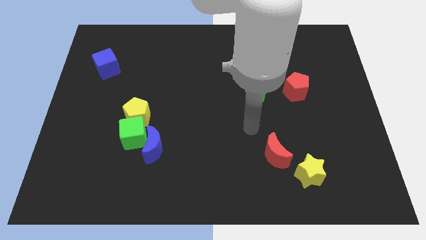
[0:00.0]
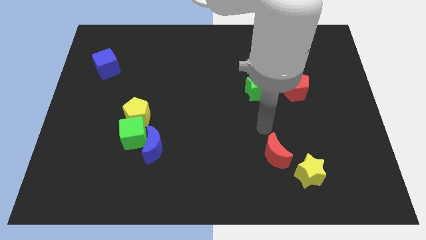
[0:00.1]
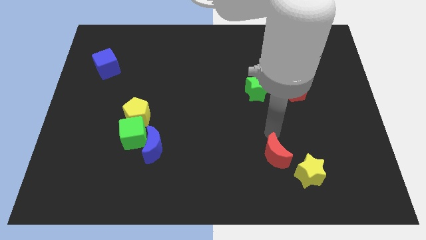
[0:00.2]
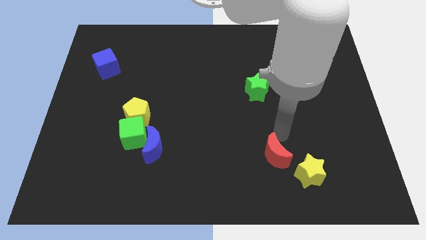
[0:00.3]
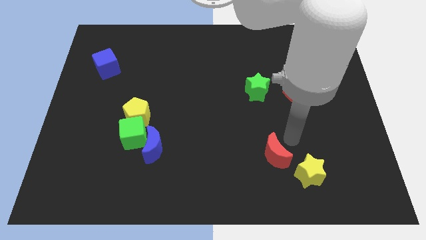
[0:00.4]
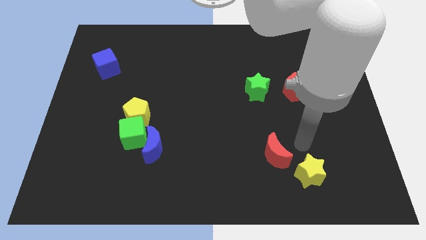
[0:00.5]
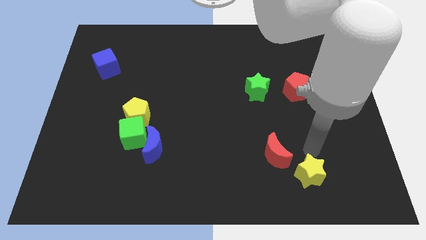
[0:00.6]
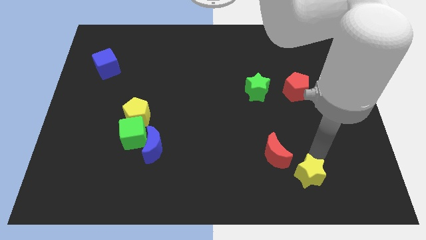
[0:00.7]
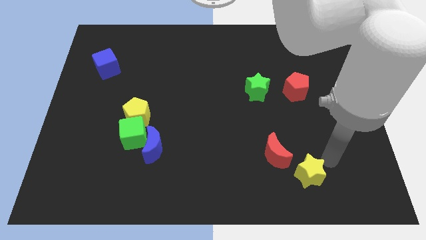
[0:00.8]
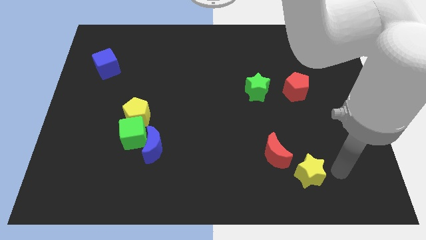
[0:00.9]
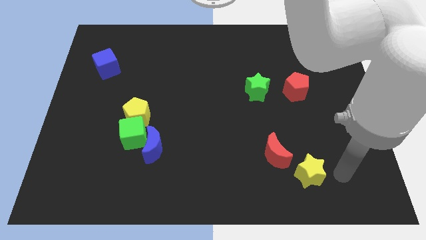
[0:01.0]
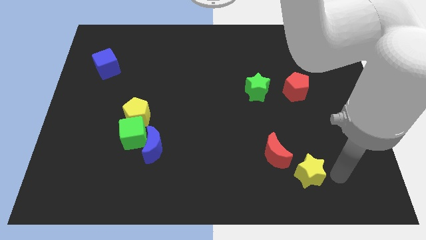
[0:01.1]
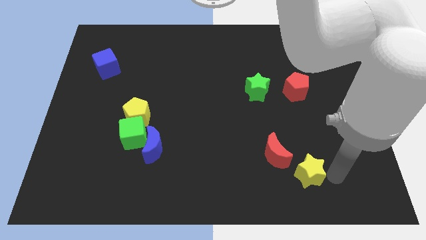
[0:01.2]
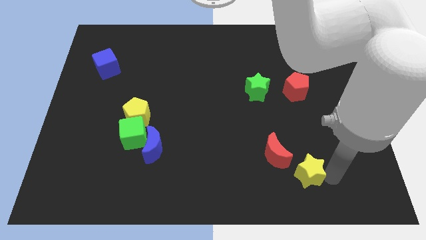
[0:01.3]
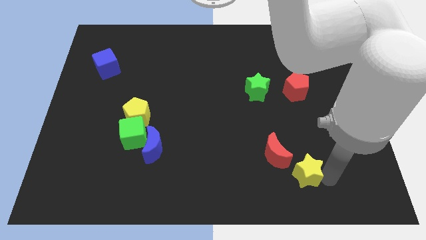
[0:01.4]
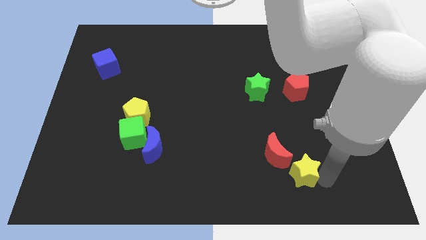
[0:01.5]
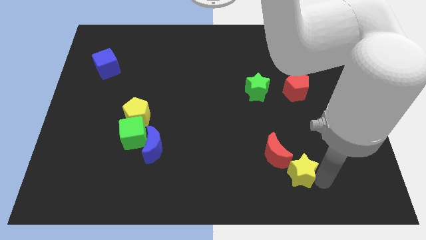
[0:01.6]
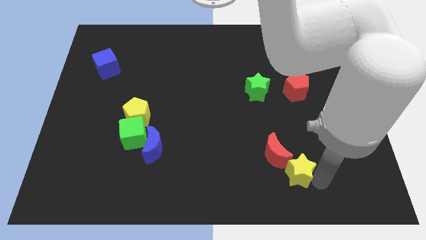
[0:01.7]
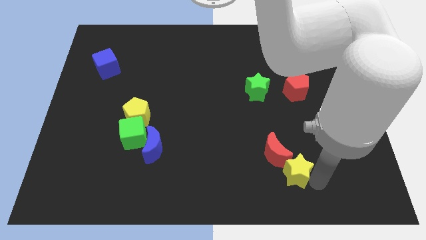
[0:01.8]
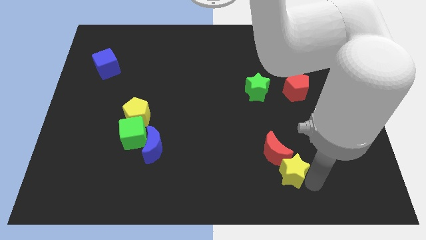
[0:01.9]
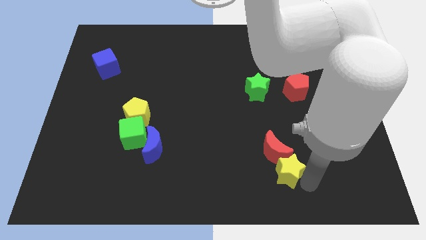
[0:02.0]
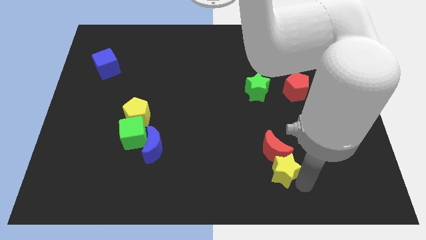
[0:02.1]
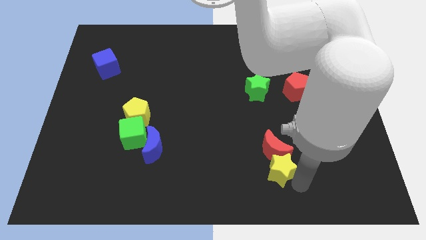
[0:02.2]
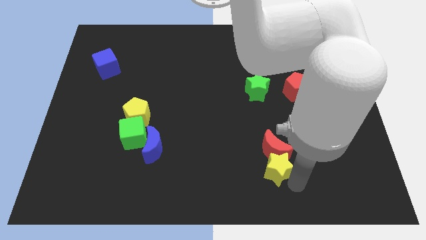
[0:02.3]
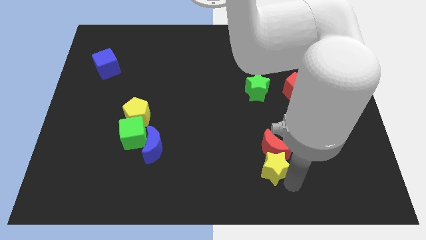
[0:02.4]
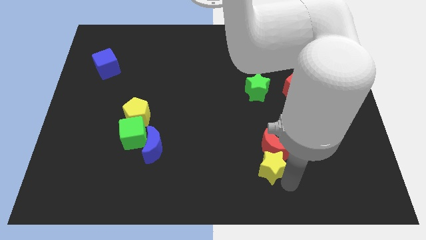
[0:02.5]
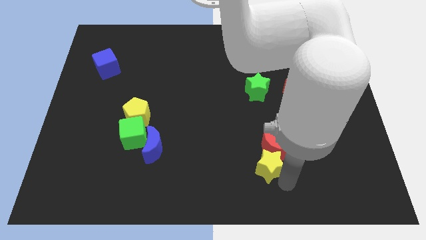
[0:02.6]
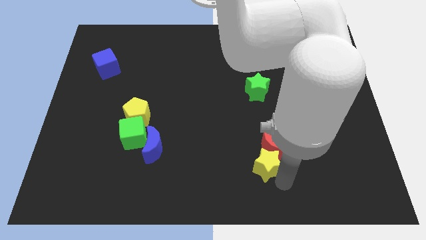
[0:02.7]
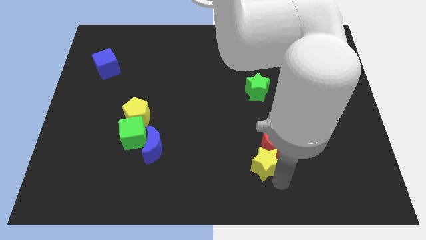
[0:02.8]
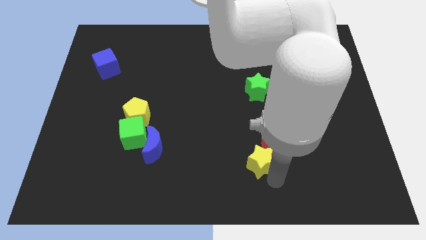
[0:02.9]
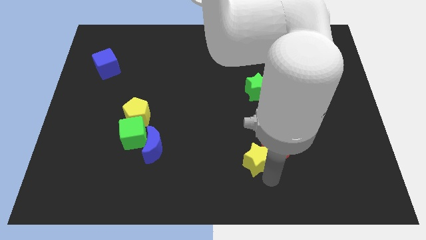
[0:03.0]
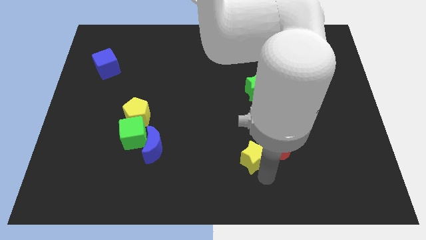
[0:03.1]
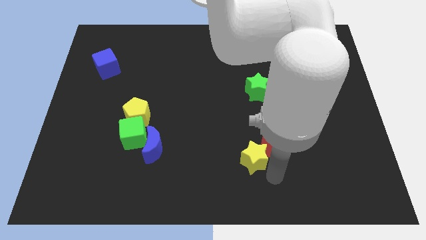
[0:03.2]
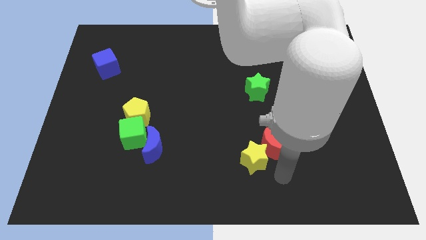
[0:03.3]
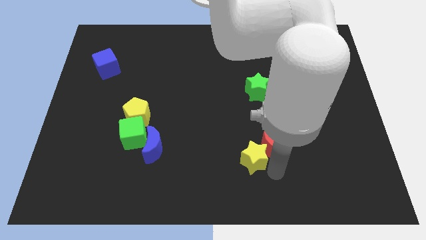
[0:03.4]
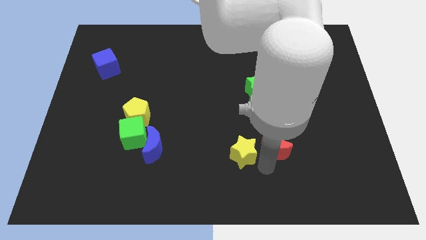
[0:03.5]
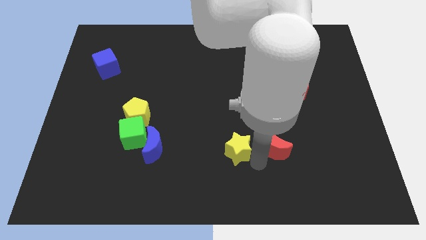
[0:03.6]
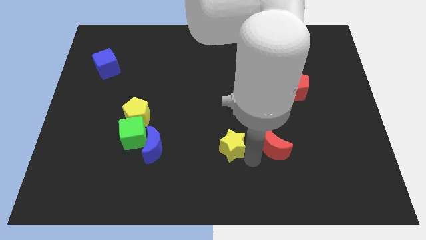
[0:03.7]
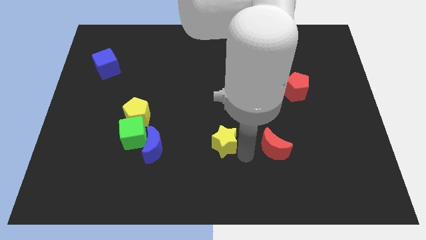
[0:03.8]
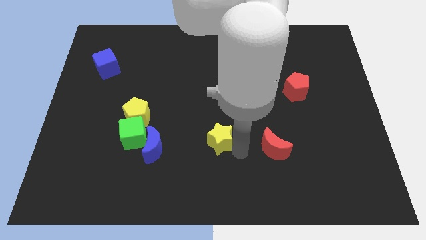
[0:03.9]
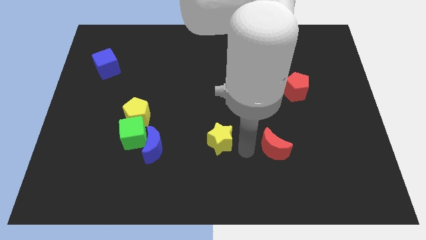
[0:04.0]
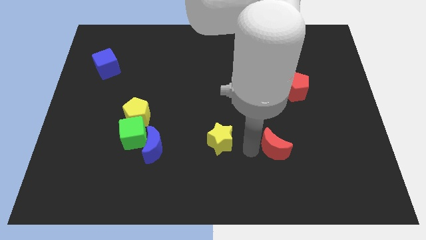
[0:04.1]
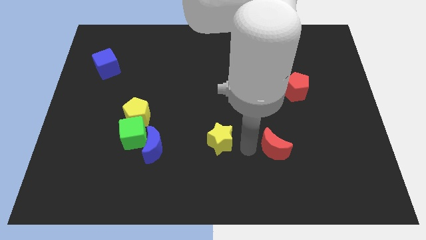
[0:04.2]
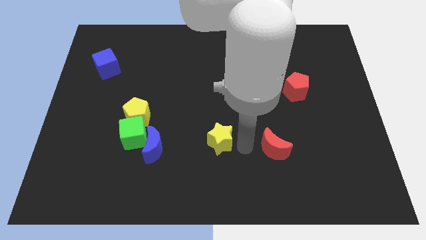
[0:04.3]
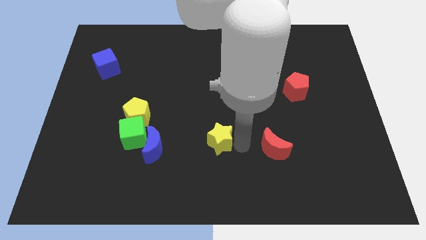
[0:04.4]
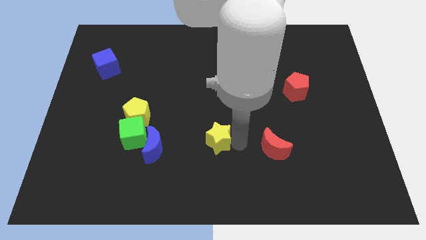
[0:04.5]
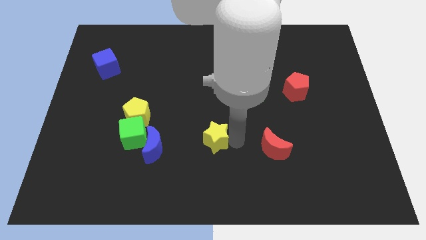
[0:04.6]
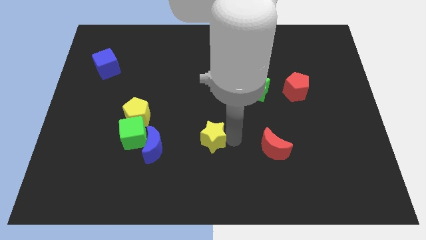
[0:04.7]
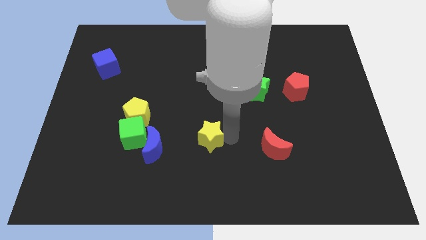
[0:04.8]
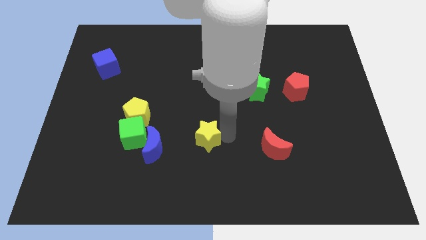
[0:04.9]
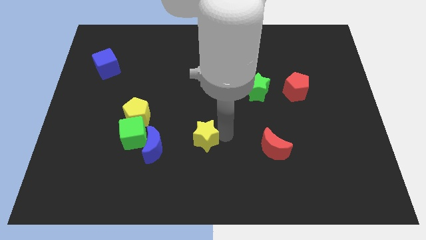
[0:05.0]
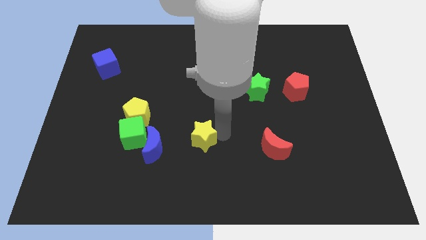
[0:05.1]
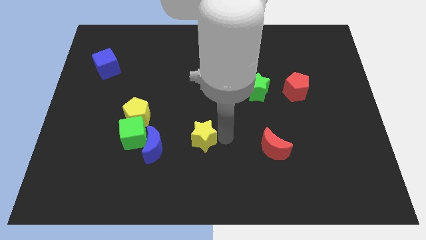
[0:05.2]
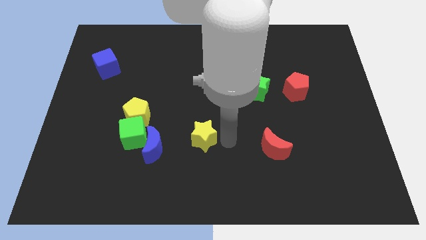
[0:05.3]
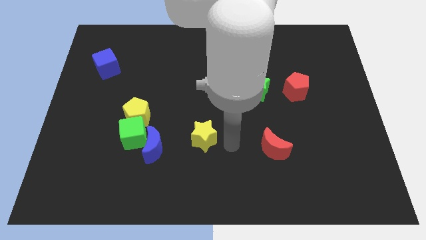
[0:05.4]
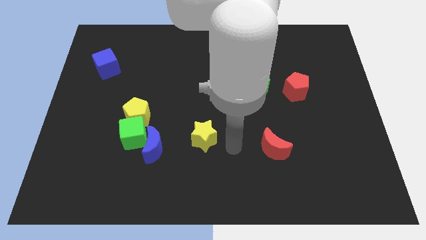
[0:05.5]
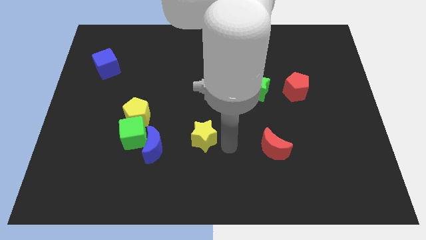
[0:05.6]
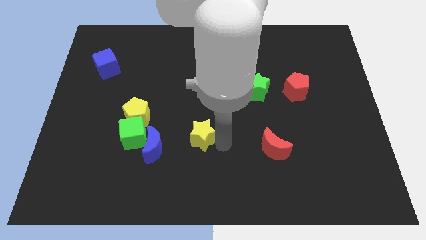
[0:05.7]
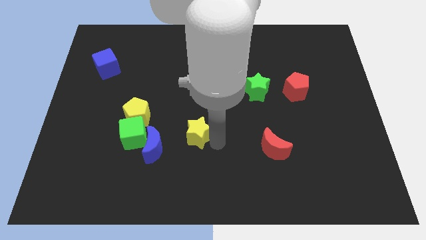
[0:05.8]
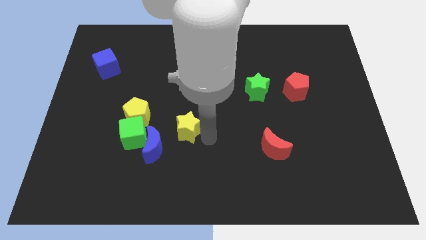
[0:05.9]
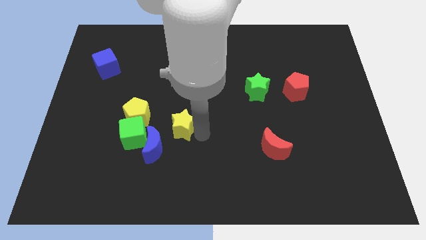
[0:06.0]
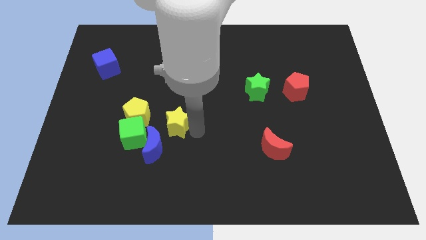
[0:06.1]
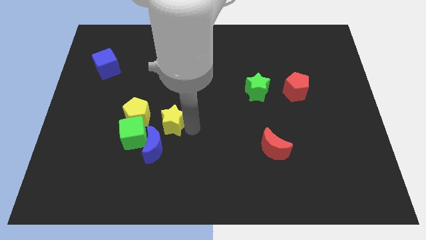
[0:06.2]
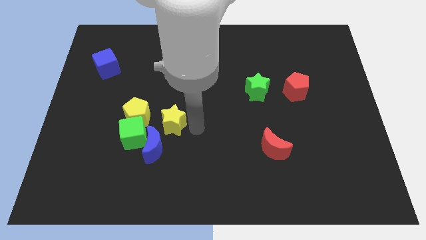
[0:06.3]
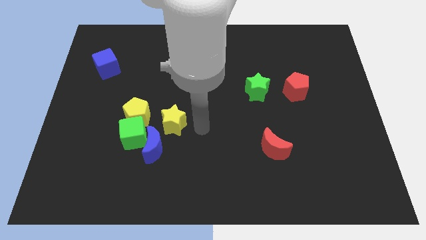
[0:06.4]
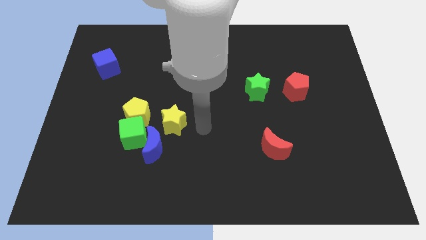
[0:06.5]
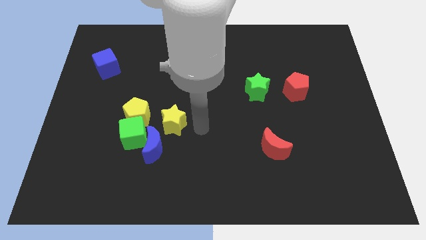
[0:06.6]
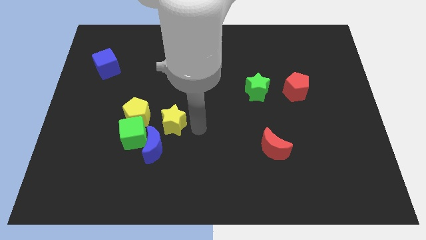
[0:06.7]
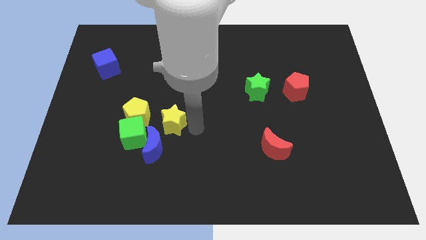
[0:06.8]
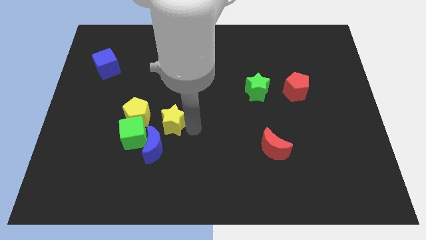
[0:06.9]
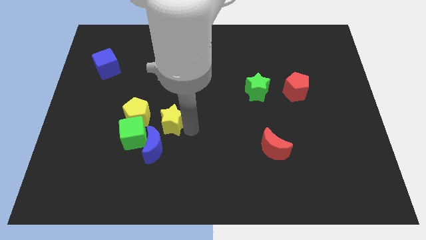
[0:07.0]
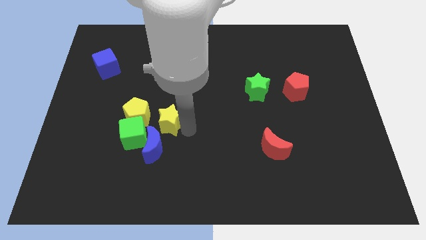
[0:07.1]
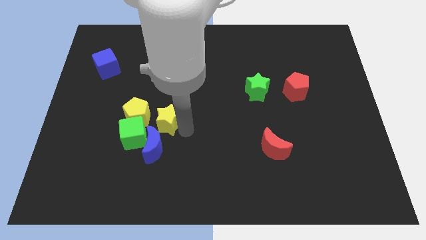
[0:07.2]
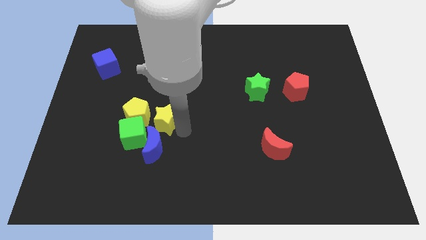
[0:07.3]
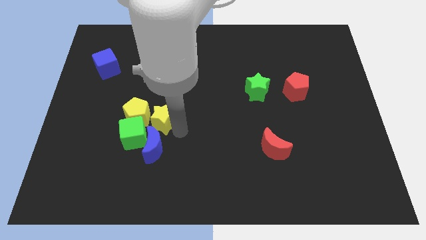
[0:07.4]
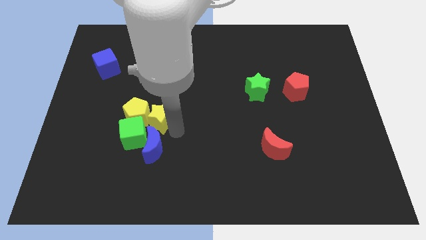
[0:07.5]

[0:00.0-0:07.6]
slide the yellow star towards the yellow pentagon

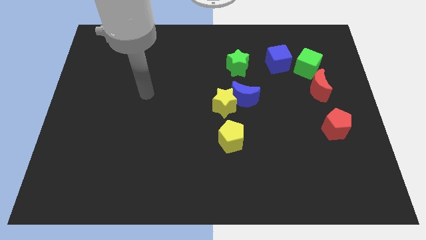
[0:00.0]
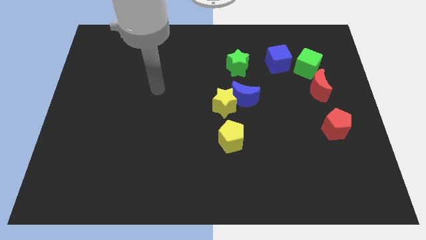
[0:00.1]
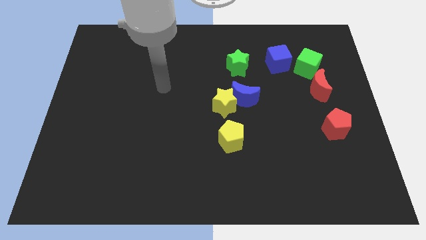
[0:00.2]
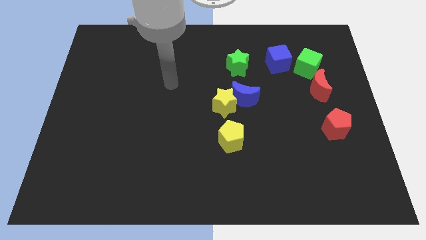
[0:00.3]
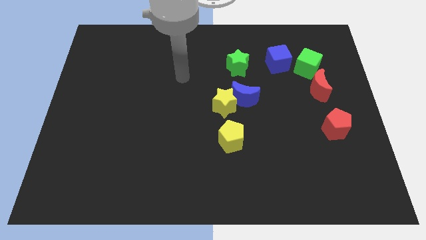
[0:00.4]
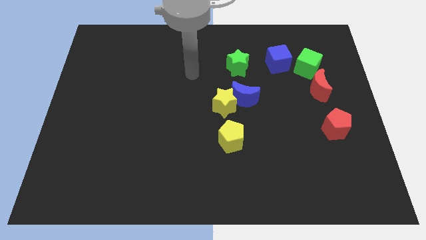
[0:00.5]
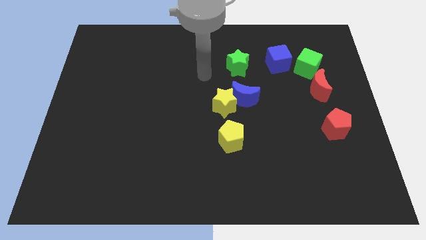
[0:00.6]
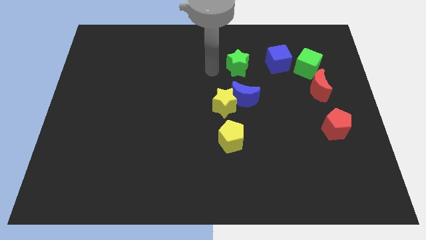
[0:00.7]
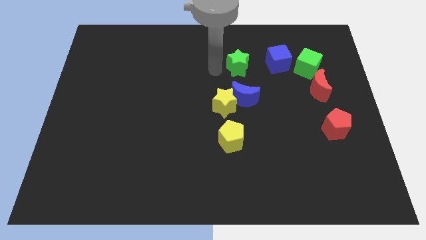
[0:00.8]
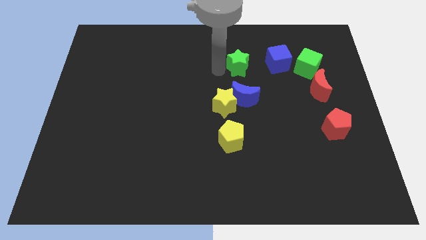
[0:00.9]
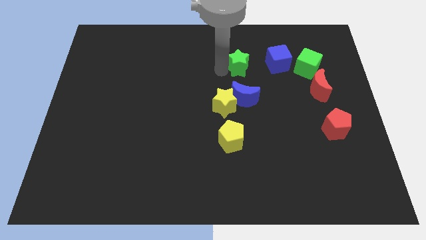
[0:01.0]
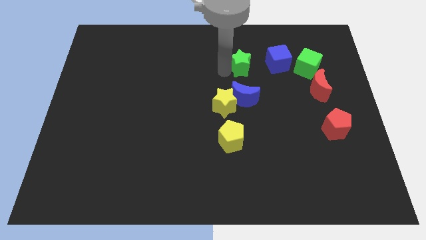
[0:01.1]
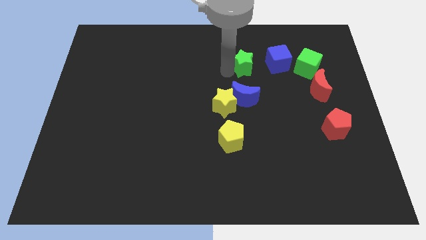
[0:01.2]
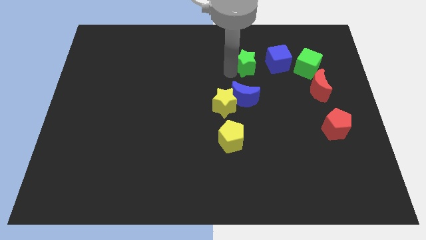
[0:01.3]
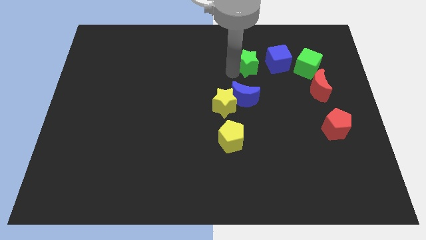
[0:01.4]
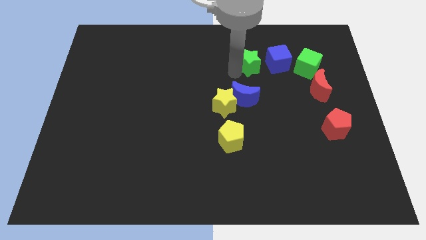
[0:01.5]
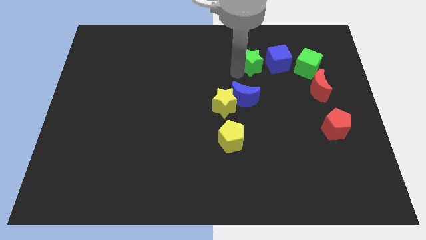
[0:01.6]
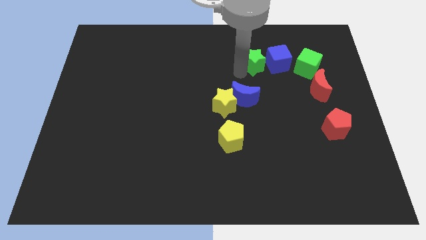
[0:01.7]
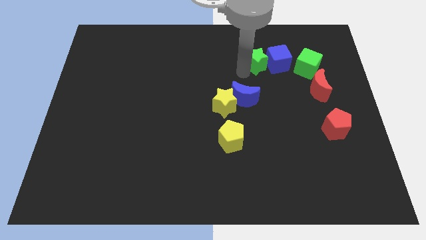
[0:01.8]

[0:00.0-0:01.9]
push the green star close to the blue cube
